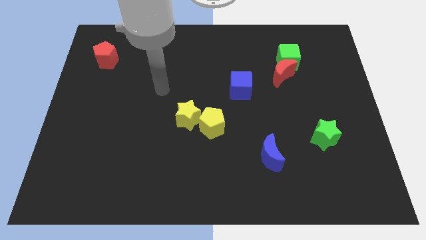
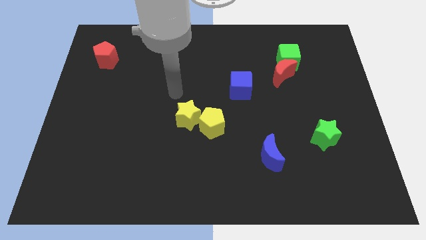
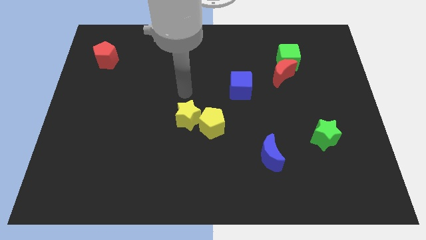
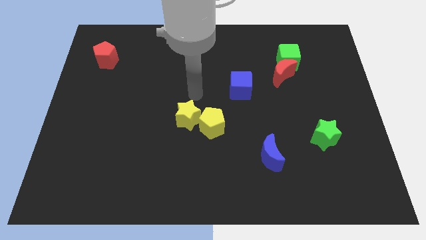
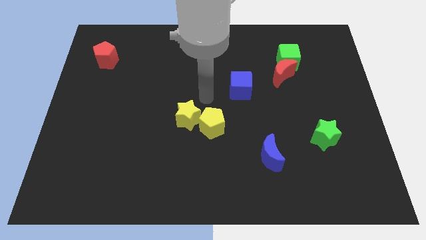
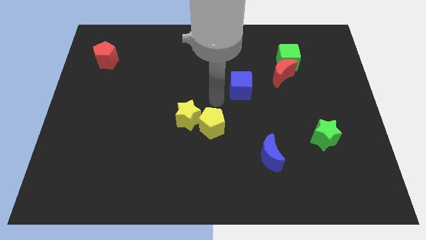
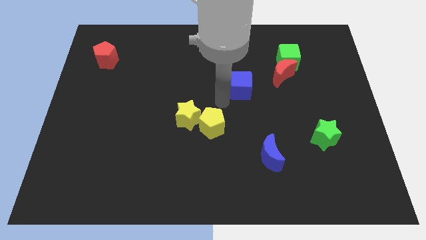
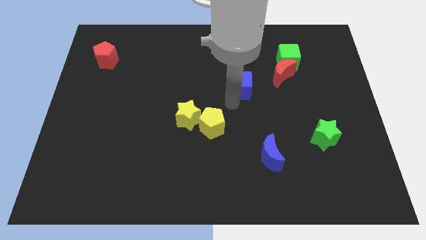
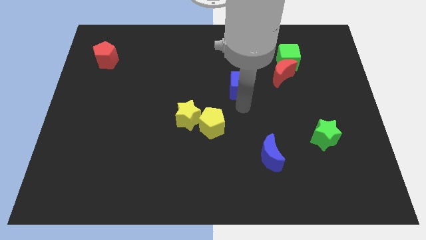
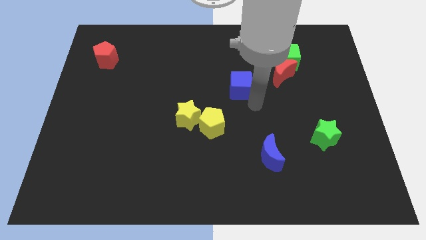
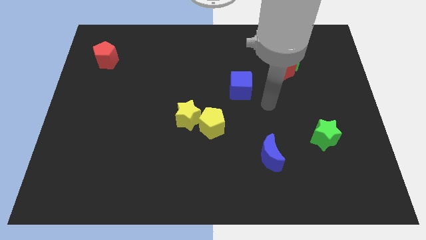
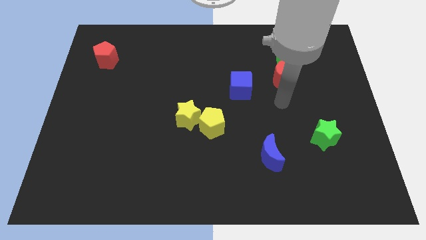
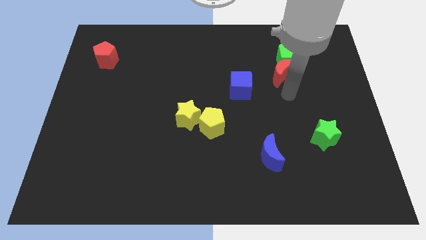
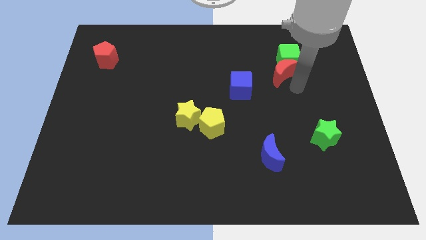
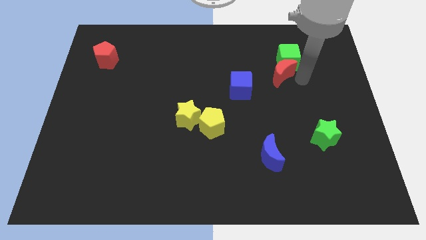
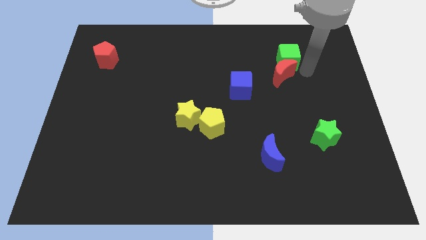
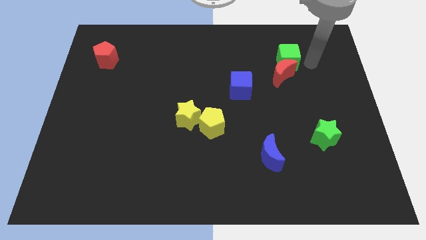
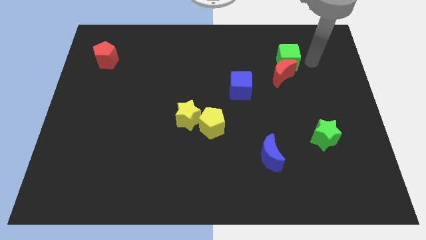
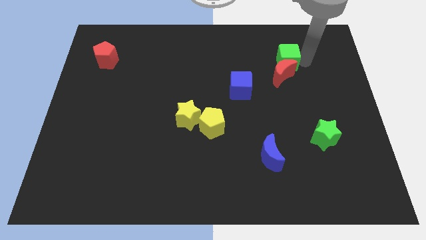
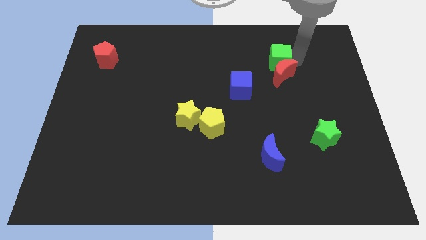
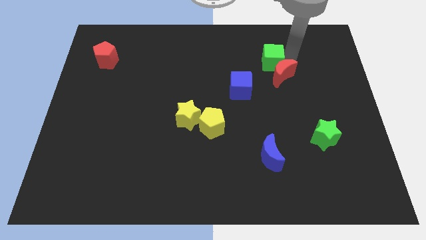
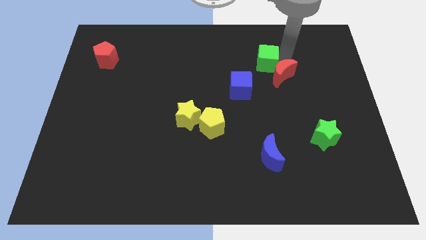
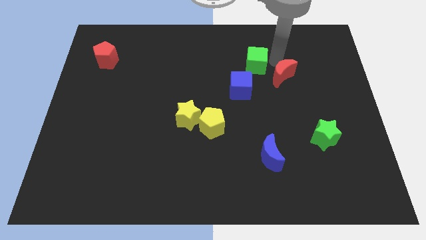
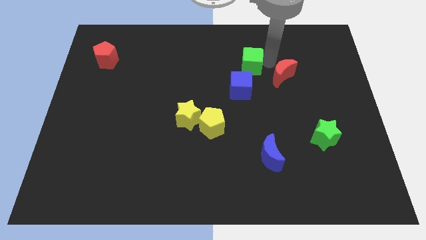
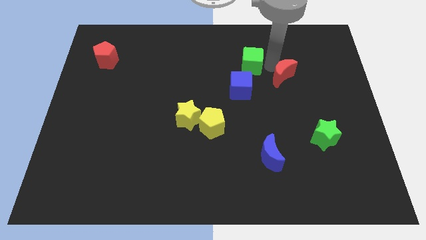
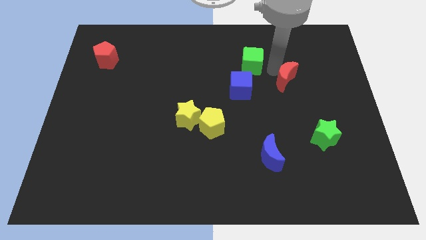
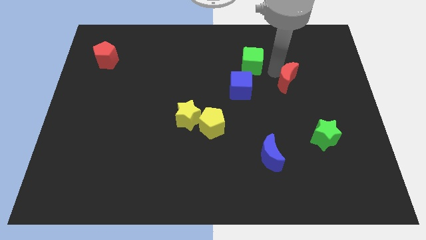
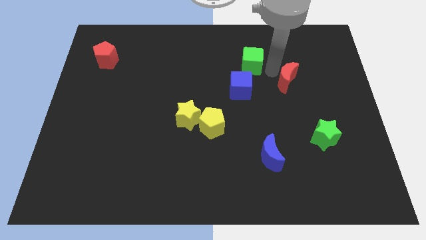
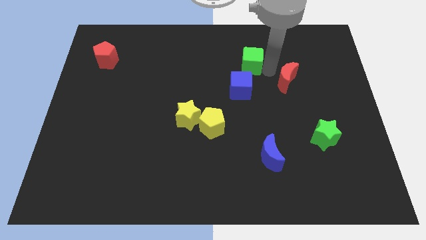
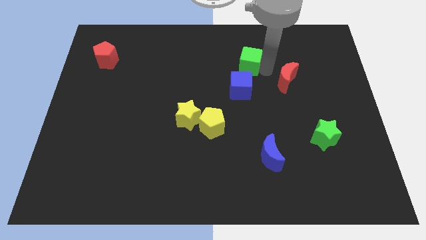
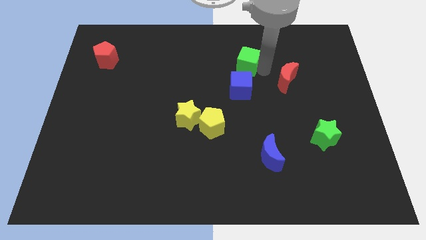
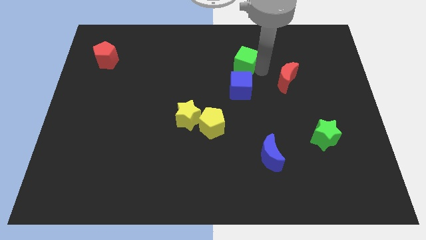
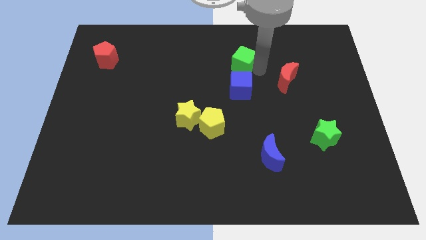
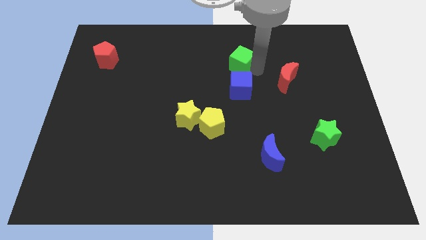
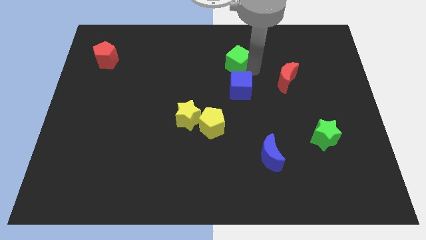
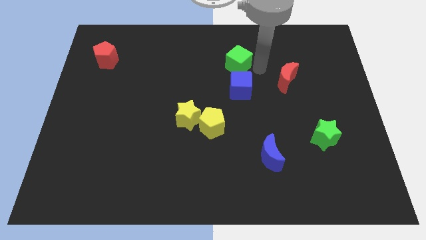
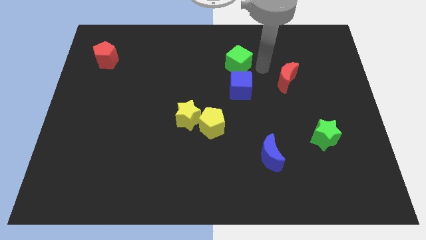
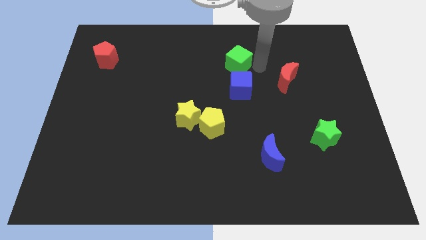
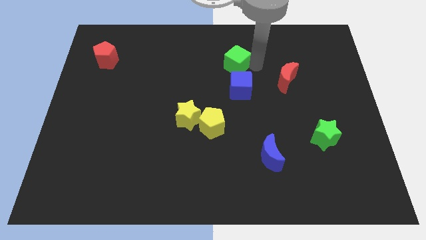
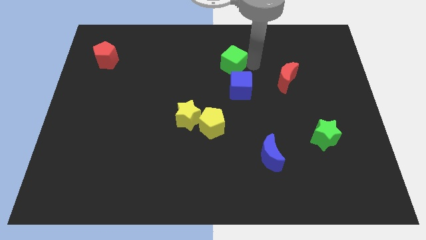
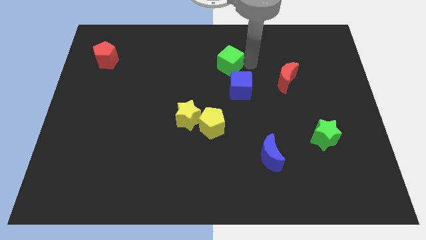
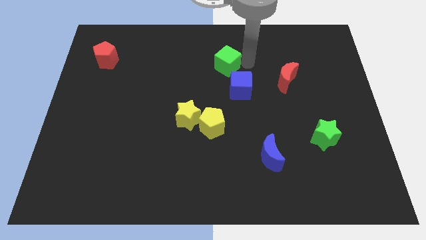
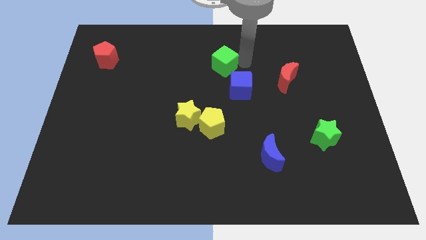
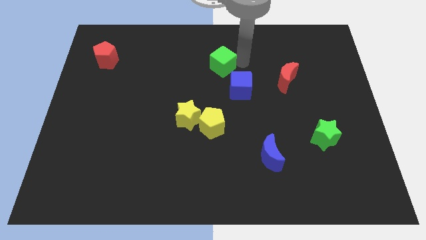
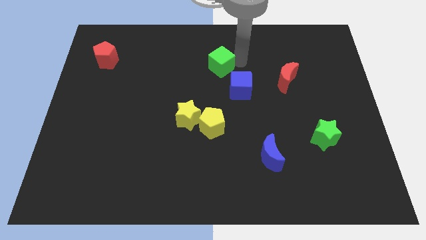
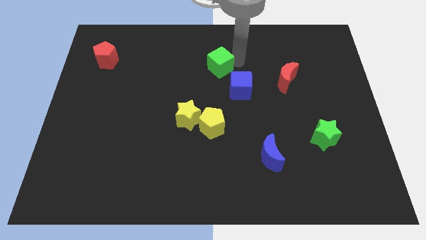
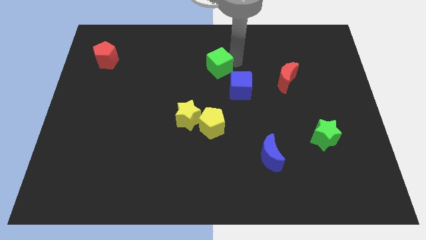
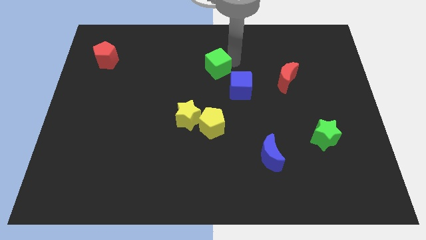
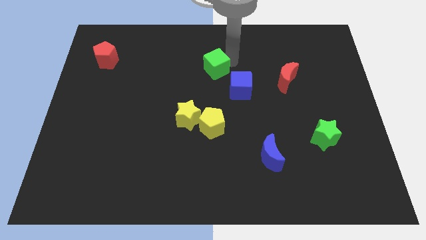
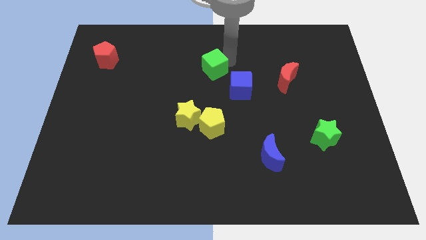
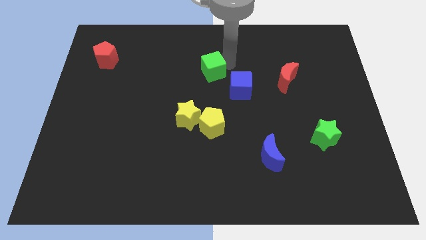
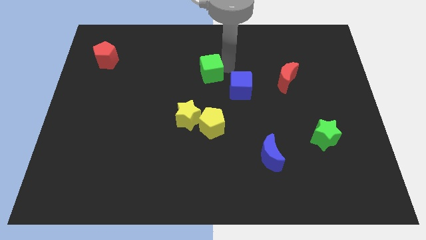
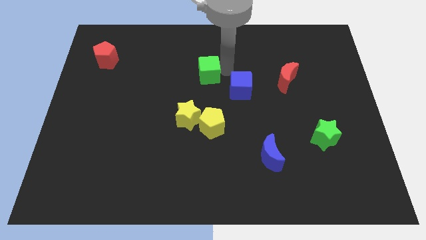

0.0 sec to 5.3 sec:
move the green cube to the left

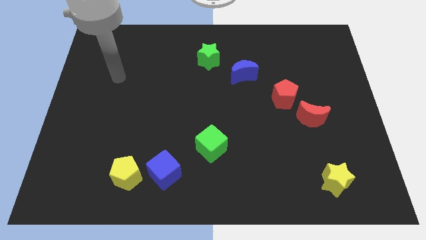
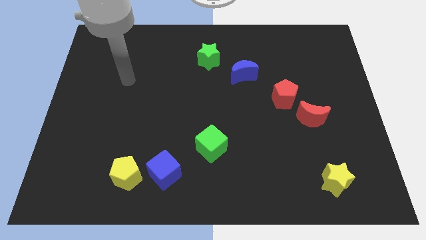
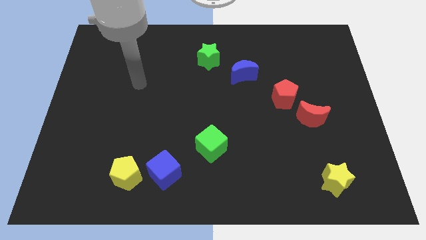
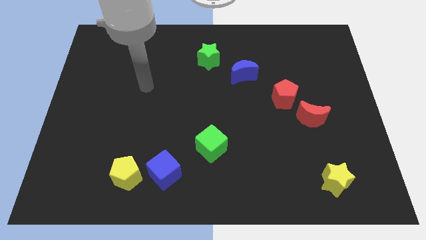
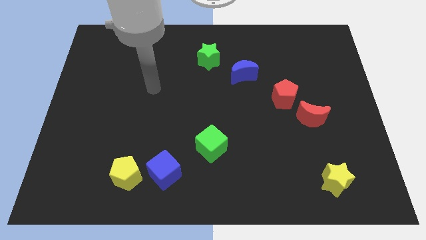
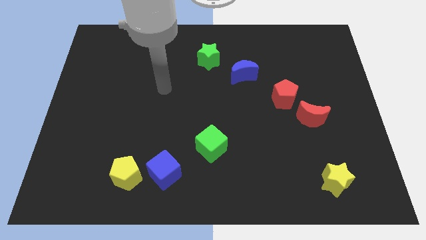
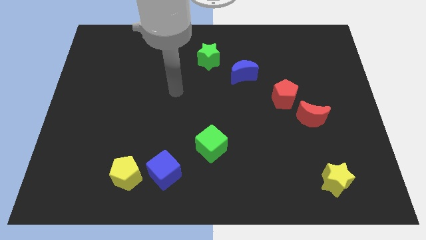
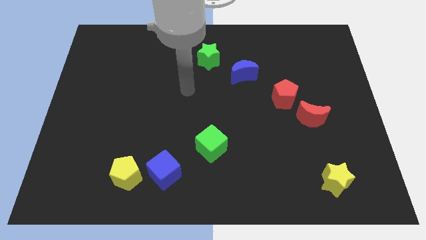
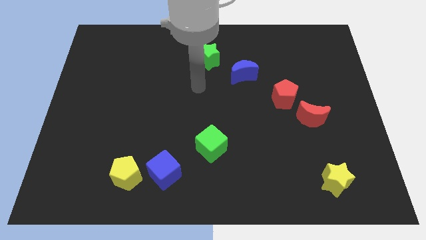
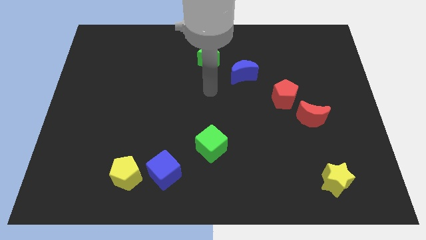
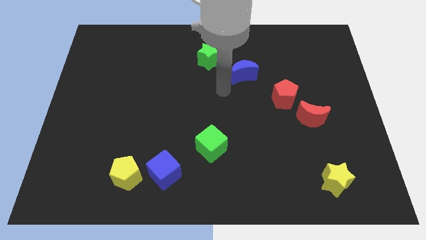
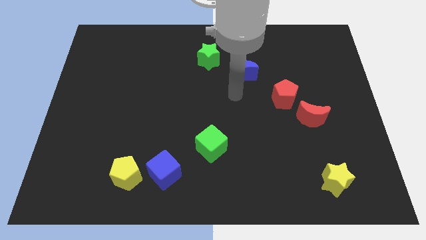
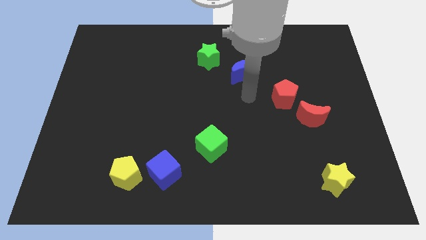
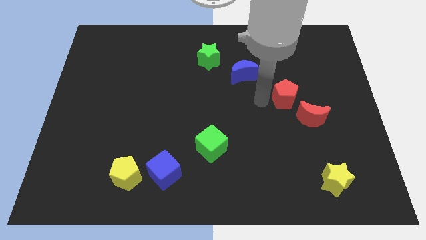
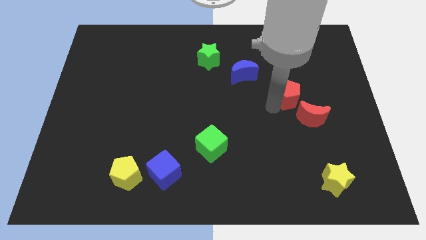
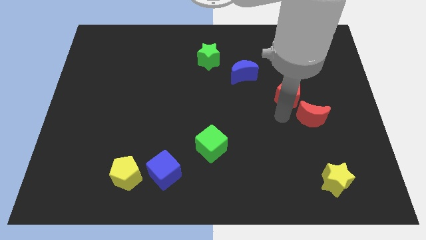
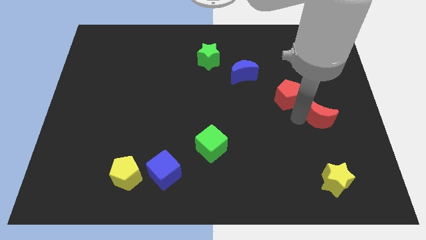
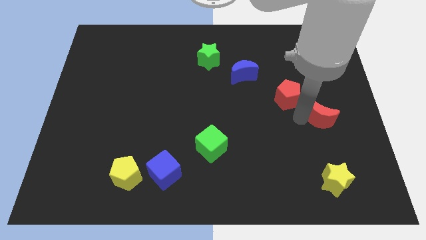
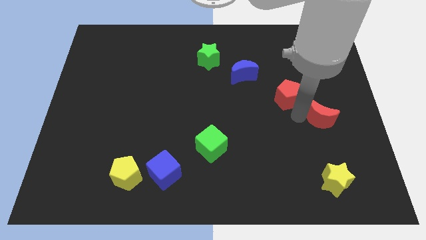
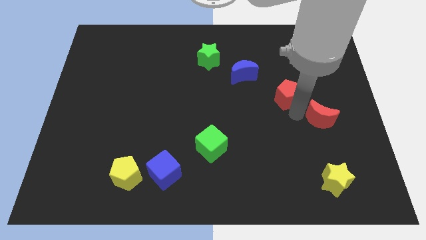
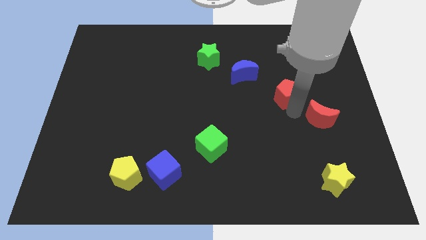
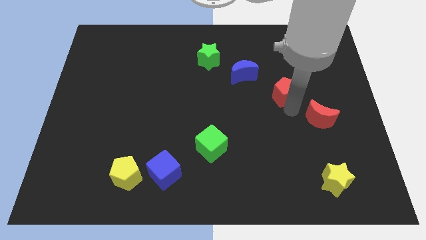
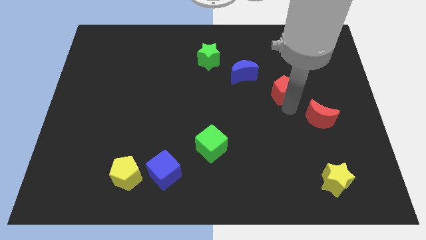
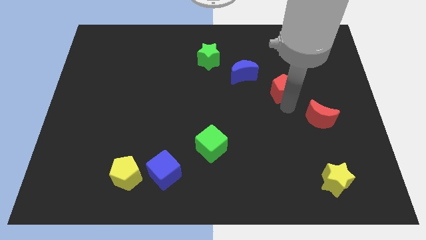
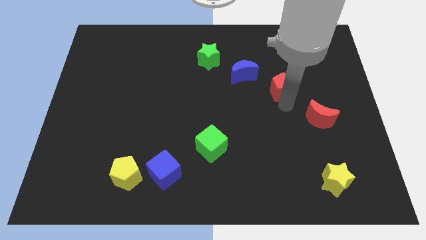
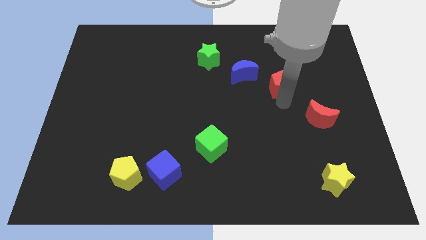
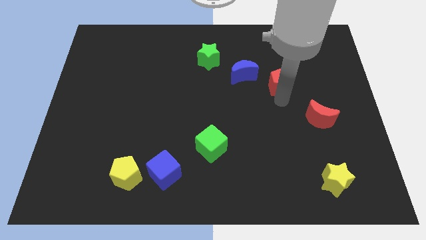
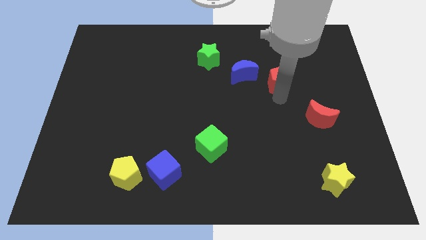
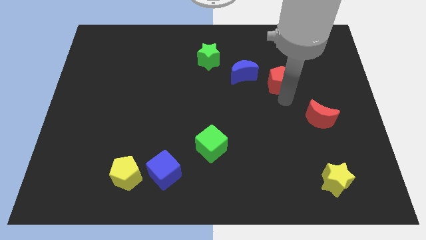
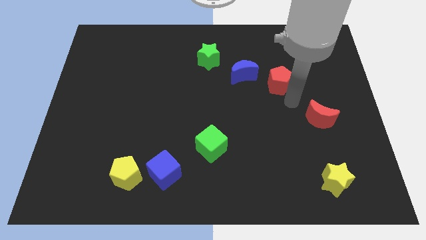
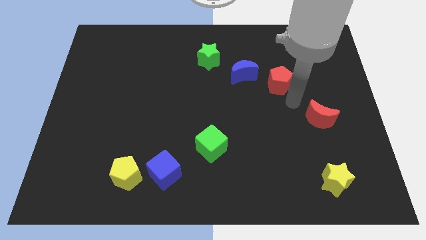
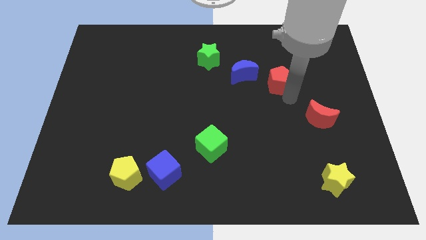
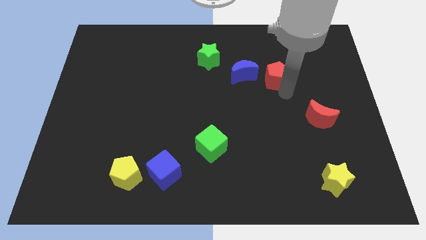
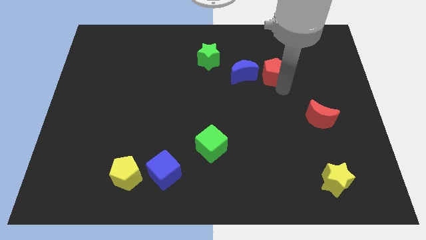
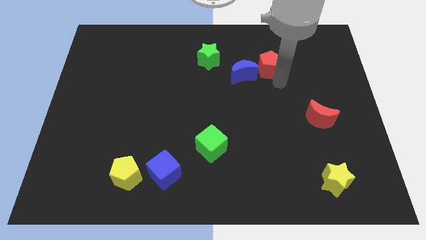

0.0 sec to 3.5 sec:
push the red pentagon up and to the left a little
